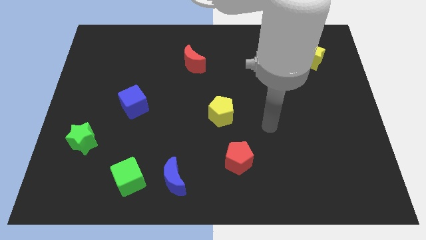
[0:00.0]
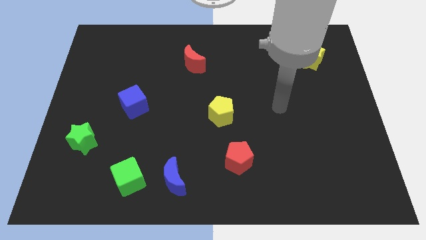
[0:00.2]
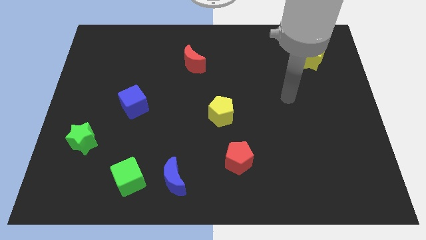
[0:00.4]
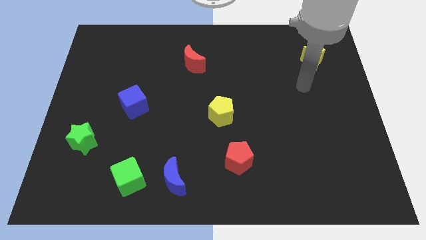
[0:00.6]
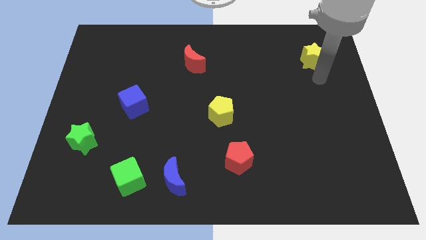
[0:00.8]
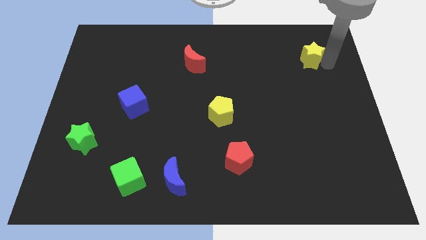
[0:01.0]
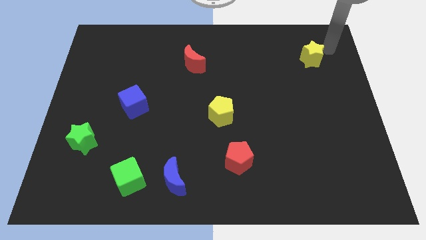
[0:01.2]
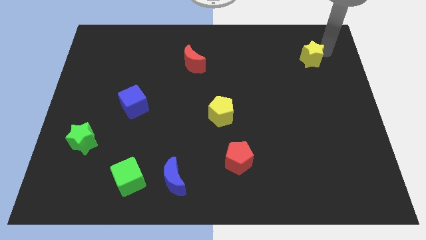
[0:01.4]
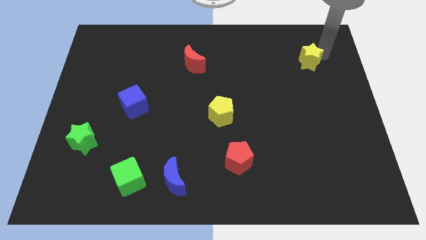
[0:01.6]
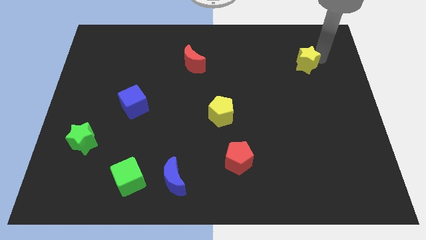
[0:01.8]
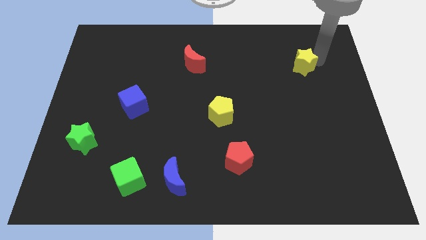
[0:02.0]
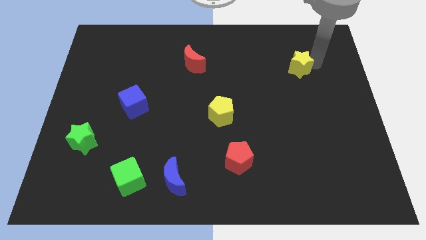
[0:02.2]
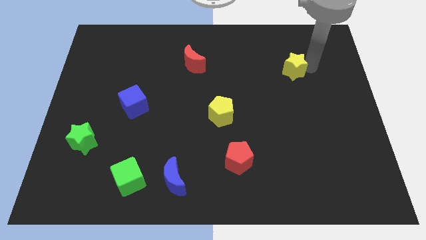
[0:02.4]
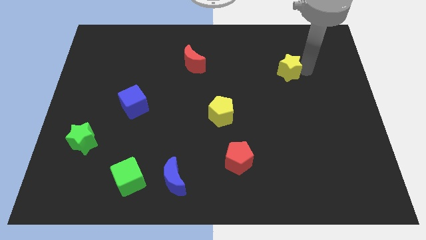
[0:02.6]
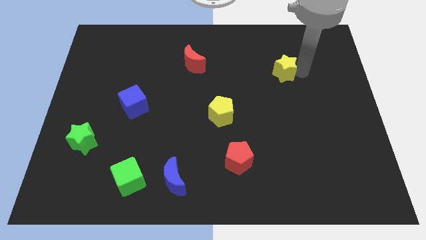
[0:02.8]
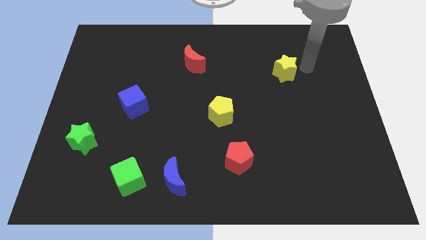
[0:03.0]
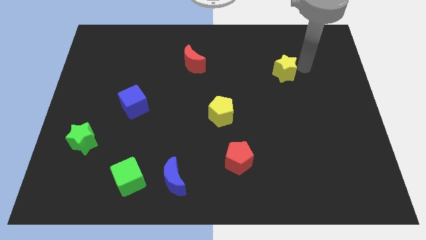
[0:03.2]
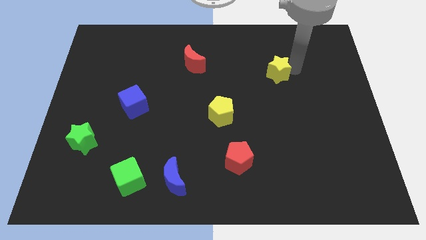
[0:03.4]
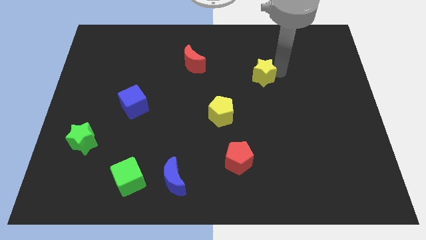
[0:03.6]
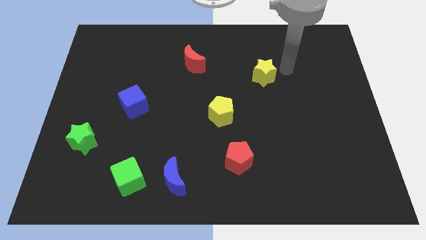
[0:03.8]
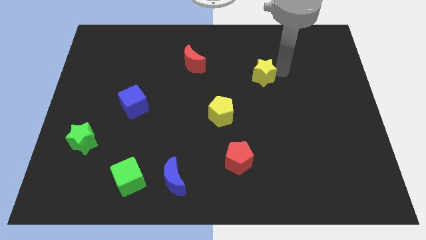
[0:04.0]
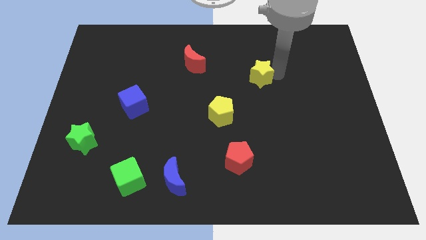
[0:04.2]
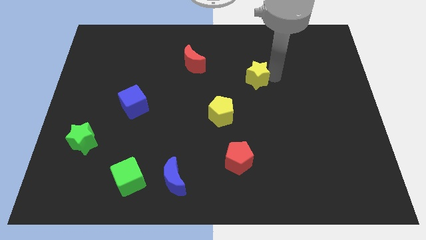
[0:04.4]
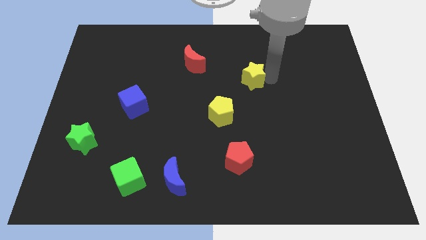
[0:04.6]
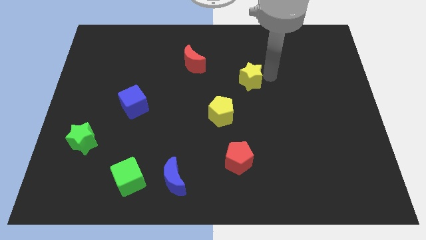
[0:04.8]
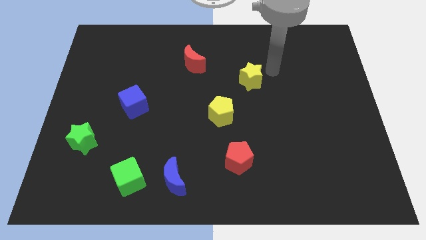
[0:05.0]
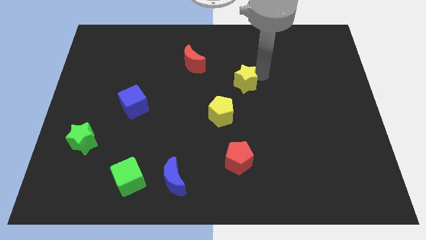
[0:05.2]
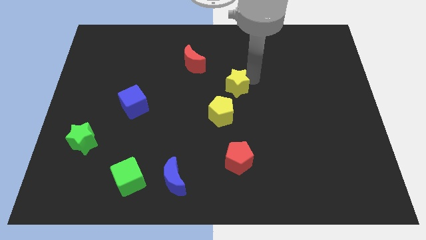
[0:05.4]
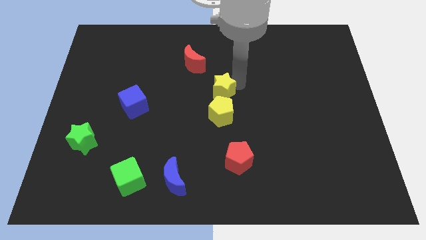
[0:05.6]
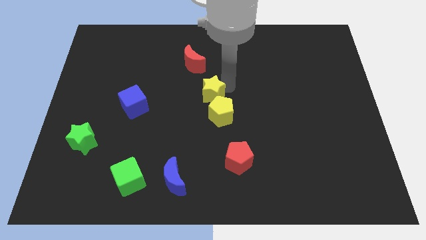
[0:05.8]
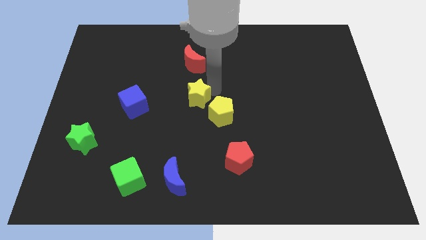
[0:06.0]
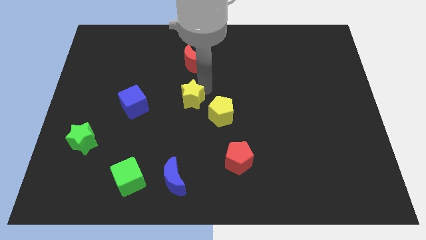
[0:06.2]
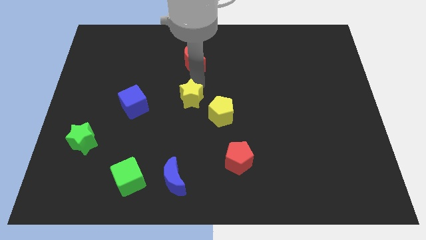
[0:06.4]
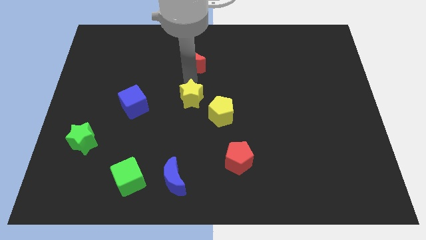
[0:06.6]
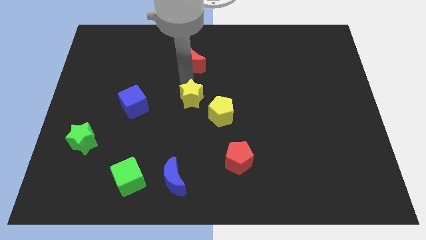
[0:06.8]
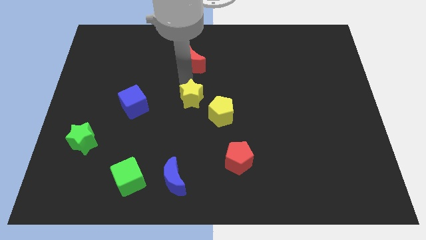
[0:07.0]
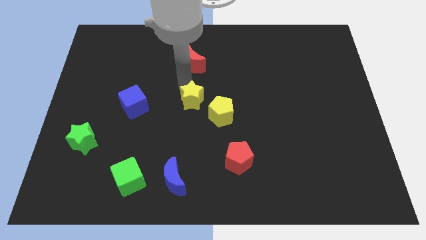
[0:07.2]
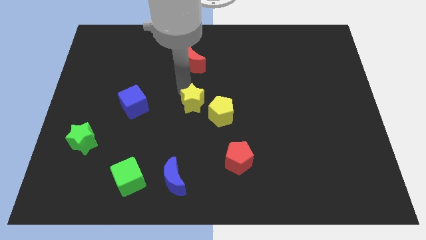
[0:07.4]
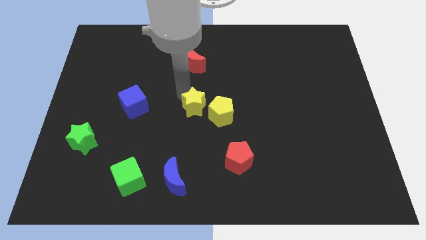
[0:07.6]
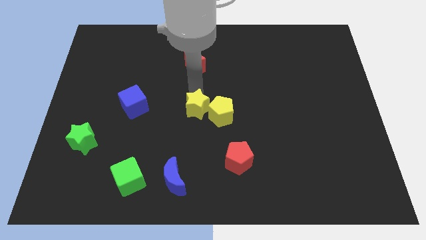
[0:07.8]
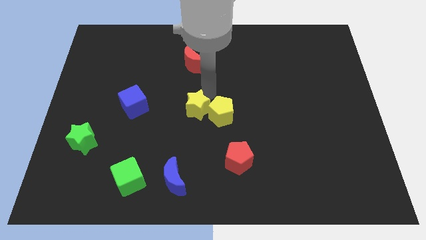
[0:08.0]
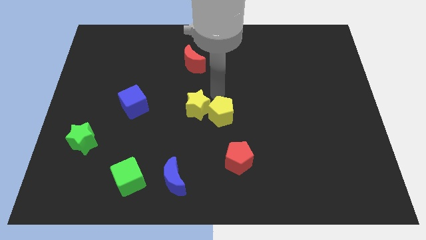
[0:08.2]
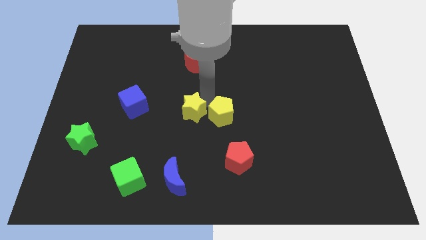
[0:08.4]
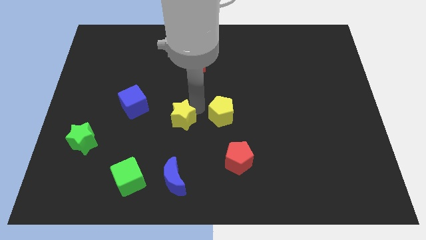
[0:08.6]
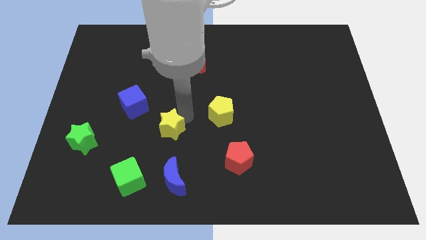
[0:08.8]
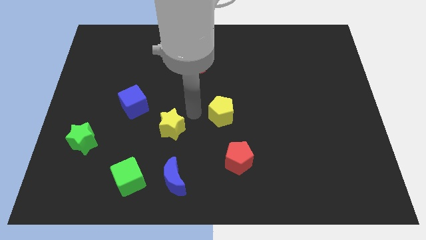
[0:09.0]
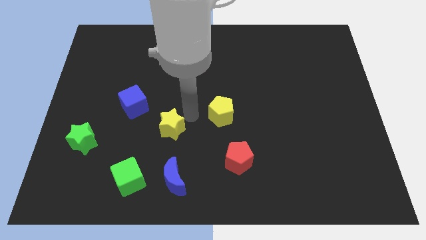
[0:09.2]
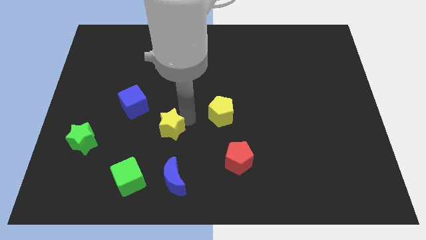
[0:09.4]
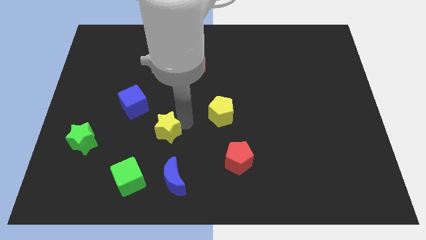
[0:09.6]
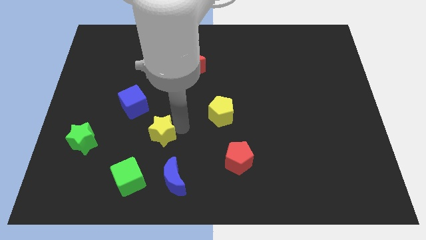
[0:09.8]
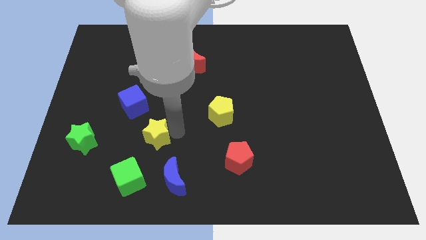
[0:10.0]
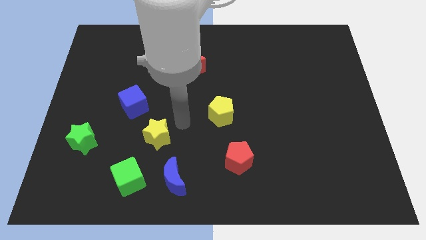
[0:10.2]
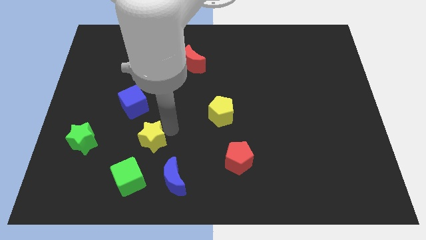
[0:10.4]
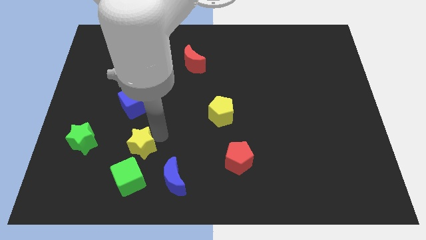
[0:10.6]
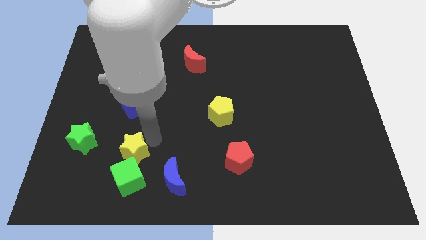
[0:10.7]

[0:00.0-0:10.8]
put the yellow star to the top left of the green cube

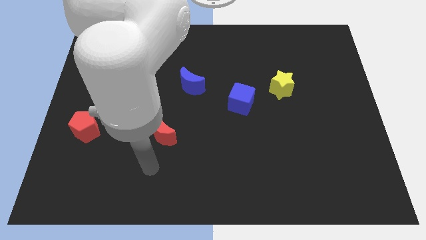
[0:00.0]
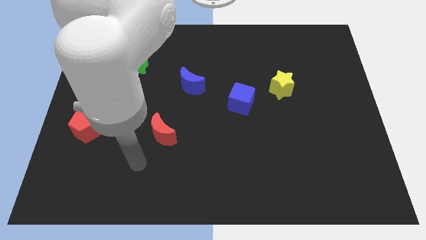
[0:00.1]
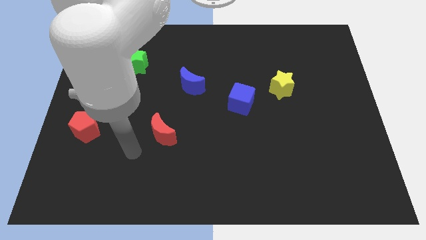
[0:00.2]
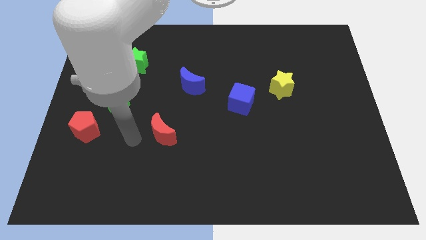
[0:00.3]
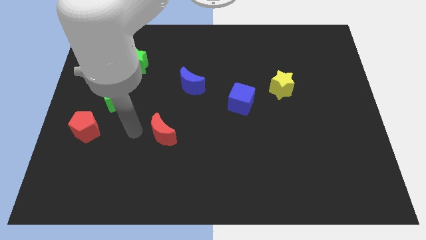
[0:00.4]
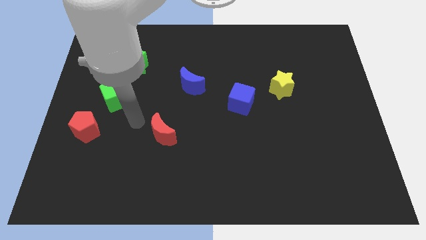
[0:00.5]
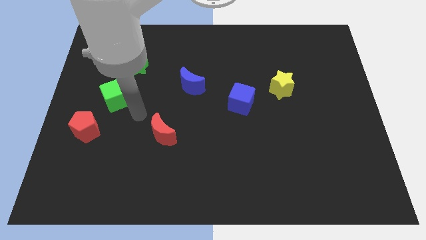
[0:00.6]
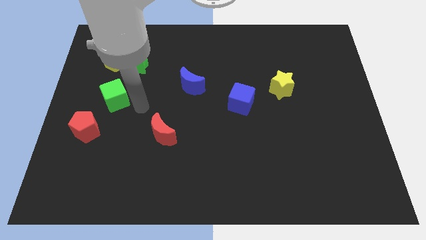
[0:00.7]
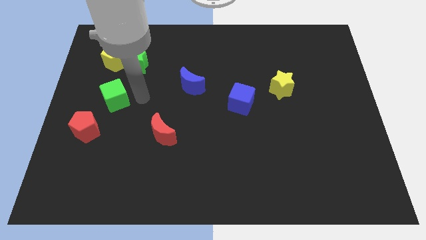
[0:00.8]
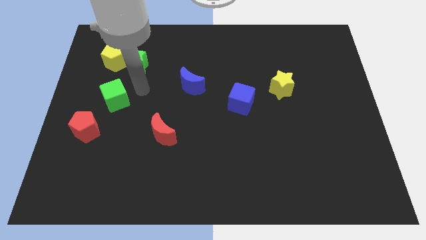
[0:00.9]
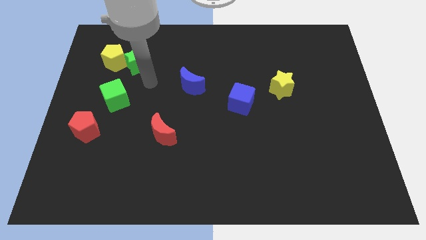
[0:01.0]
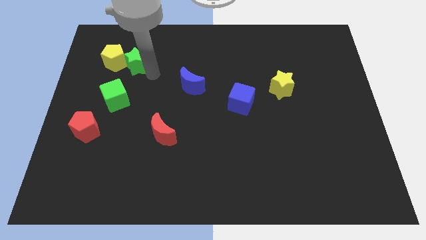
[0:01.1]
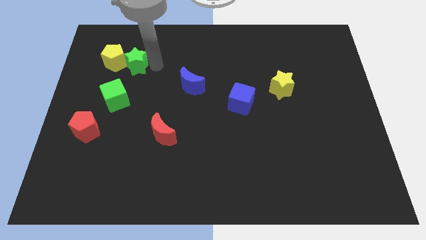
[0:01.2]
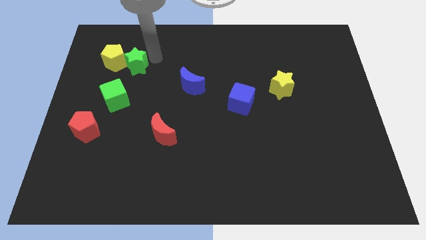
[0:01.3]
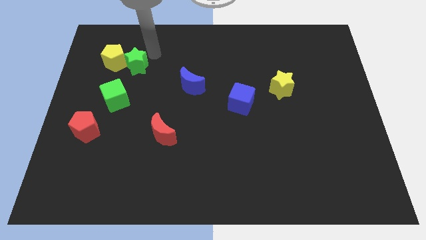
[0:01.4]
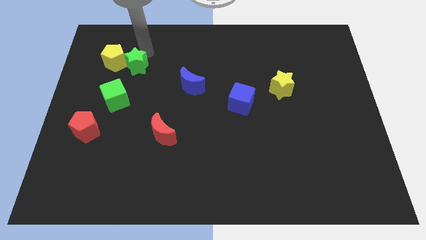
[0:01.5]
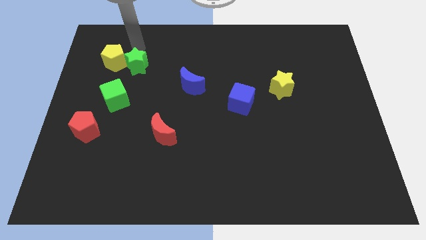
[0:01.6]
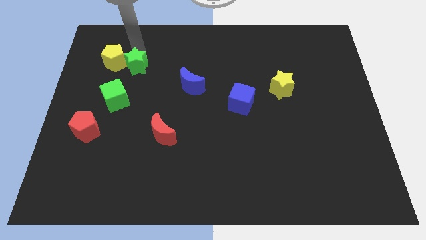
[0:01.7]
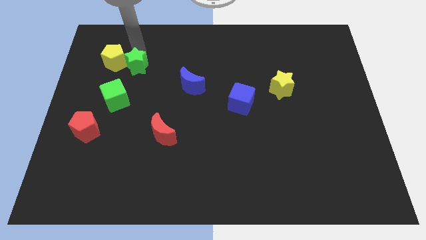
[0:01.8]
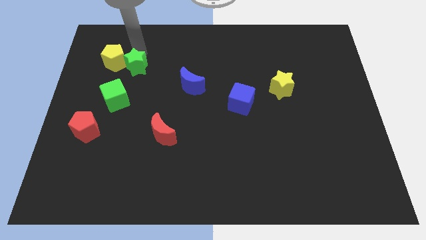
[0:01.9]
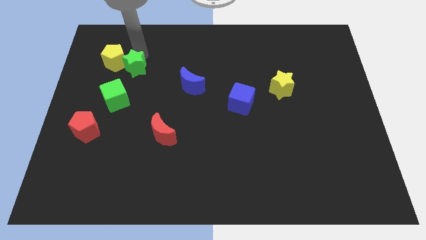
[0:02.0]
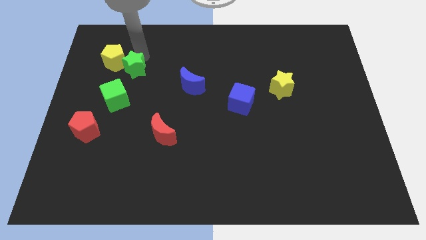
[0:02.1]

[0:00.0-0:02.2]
slide the green star diagonally up and to the right of the green cube

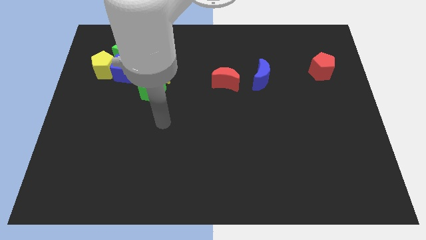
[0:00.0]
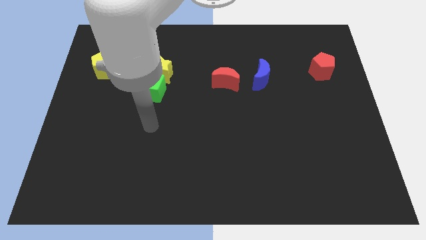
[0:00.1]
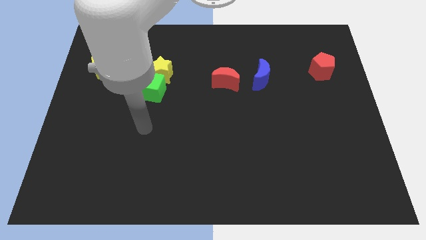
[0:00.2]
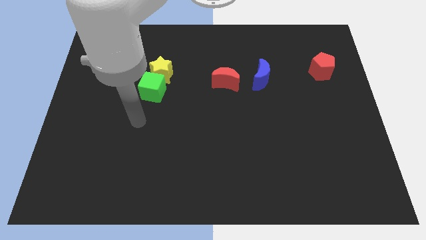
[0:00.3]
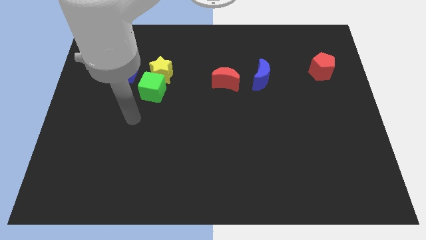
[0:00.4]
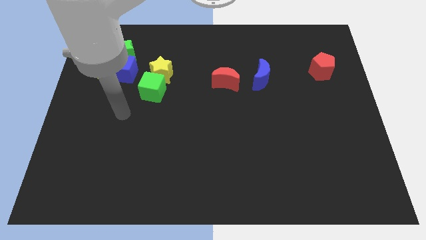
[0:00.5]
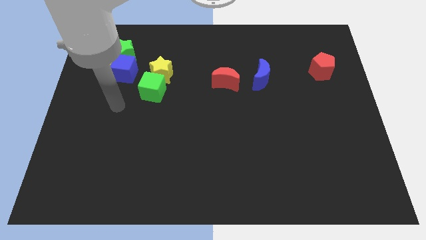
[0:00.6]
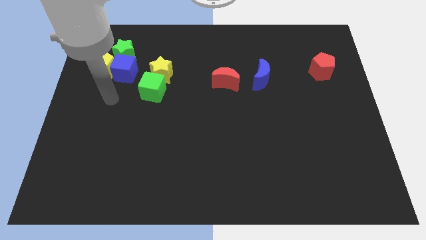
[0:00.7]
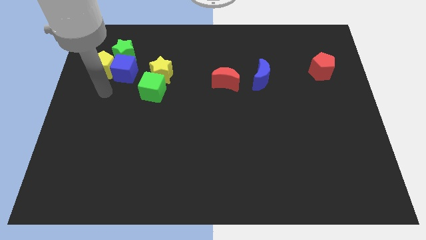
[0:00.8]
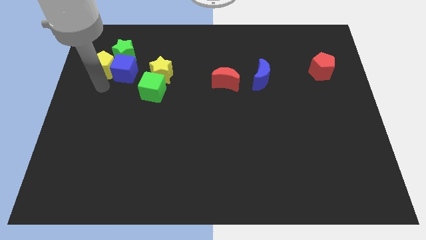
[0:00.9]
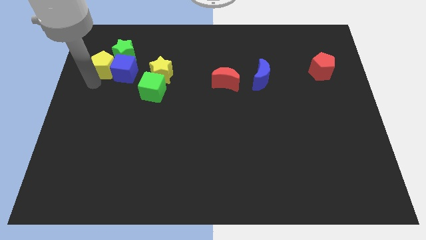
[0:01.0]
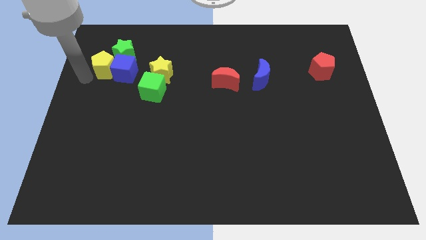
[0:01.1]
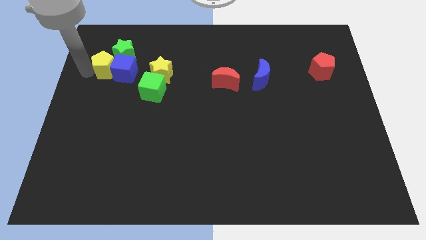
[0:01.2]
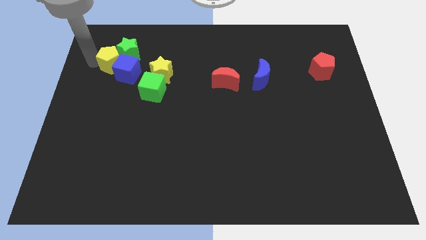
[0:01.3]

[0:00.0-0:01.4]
push the green star just right of the yellow pentagon
